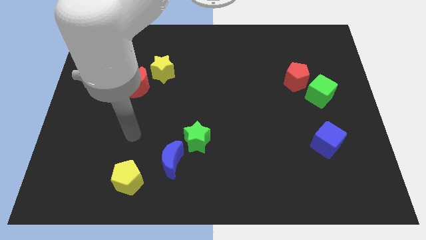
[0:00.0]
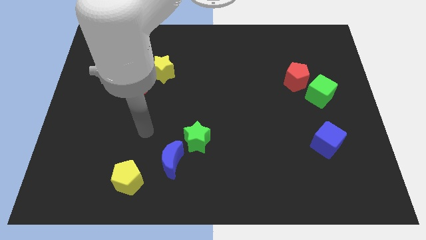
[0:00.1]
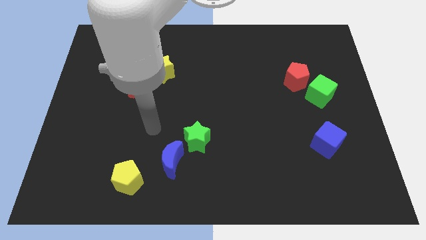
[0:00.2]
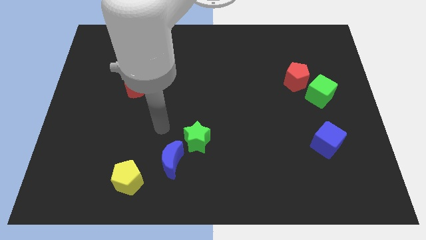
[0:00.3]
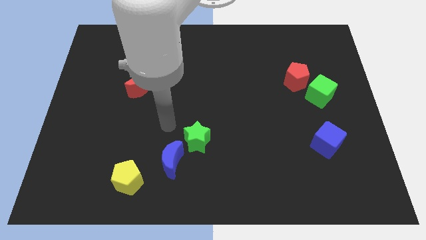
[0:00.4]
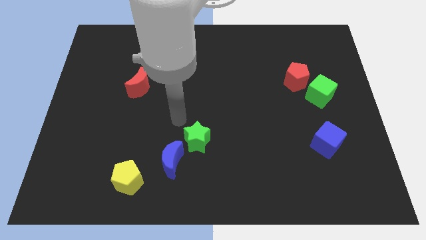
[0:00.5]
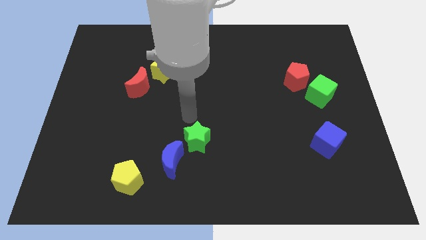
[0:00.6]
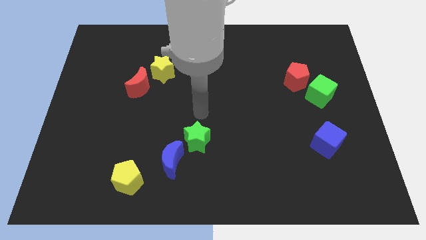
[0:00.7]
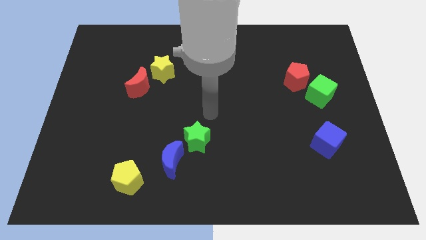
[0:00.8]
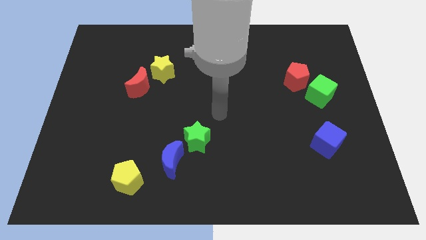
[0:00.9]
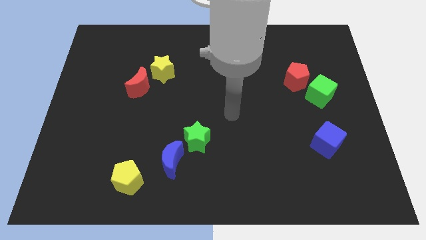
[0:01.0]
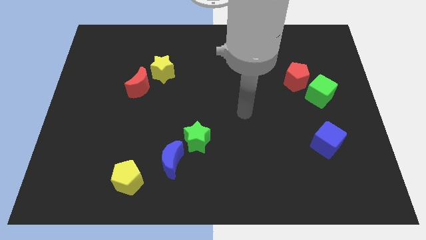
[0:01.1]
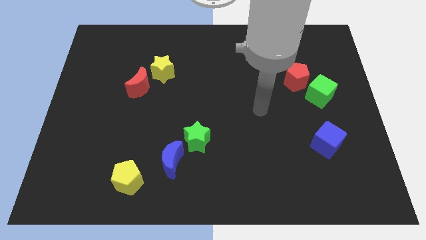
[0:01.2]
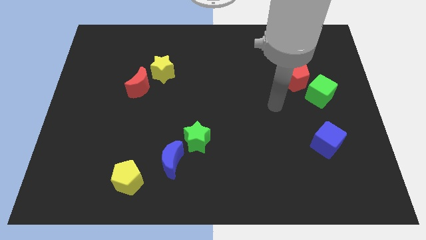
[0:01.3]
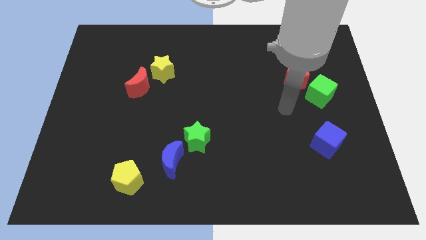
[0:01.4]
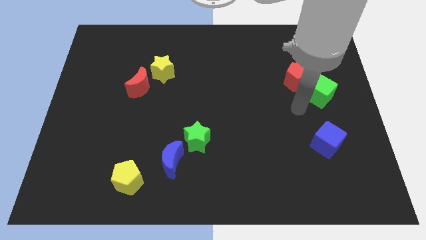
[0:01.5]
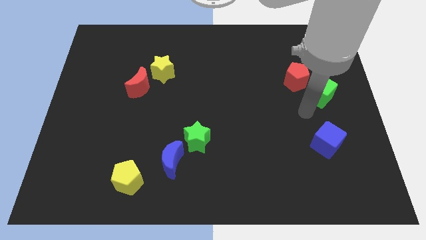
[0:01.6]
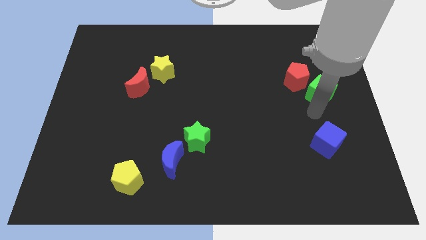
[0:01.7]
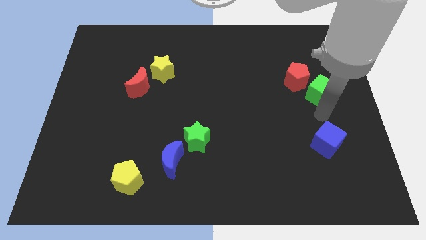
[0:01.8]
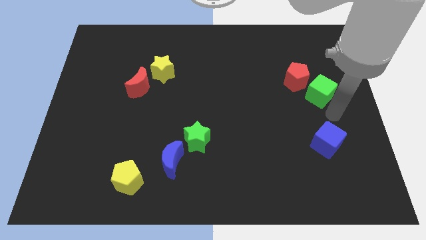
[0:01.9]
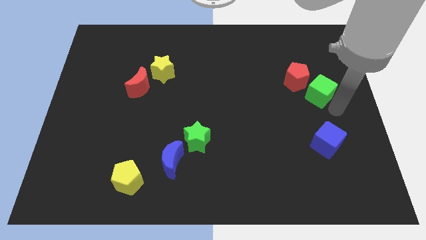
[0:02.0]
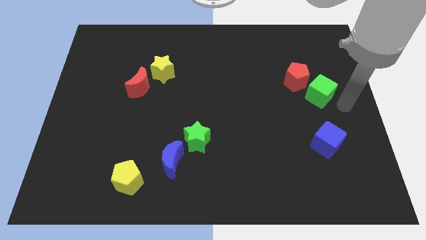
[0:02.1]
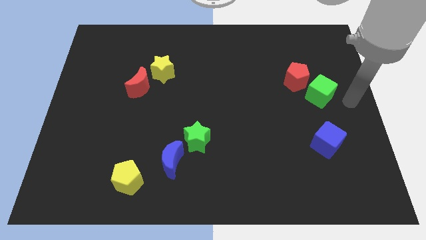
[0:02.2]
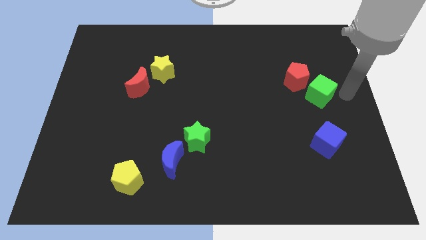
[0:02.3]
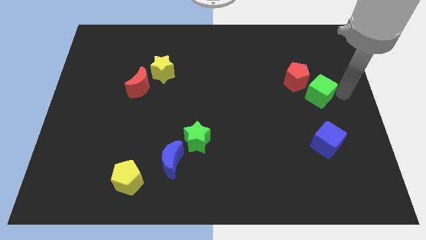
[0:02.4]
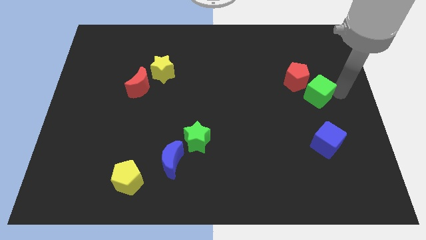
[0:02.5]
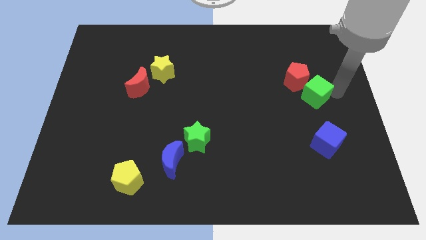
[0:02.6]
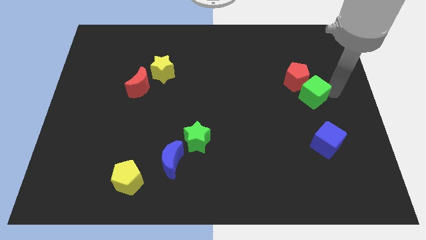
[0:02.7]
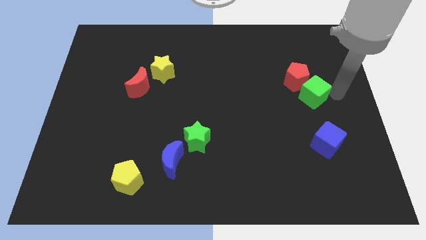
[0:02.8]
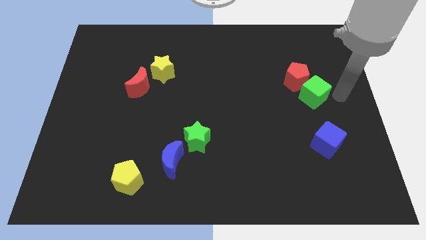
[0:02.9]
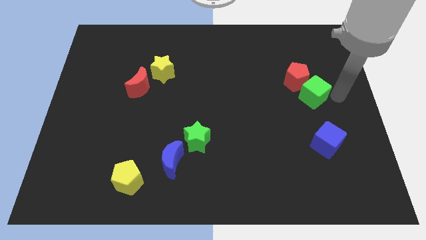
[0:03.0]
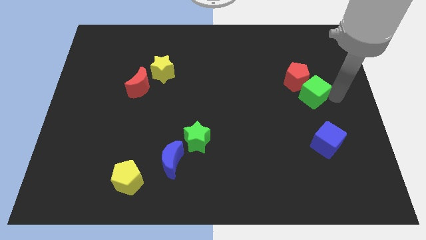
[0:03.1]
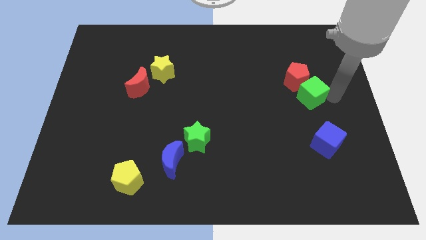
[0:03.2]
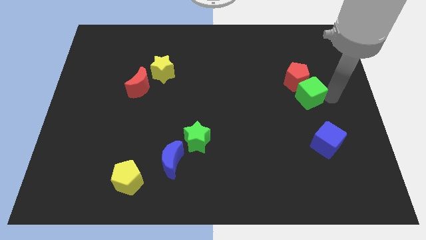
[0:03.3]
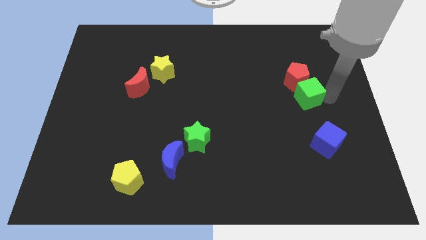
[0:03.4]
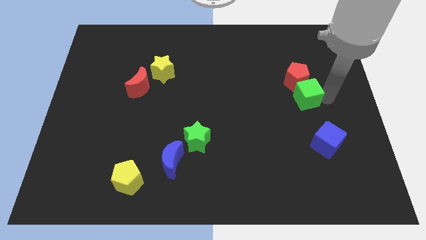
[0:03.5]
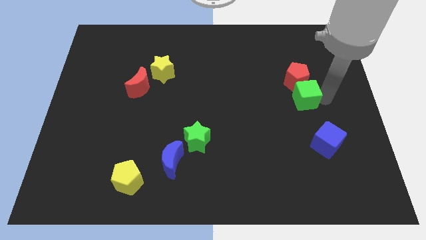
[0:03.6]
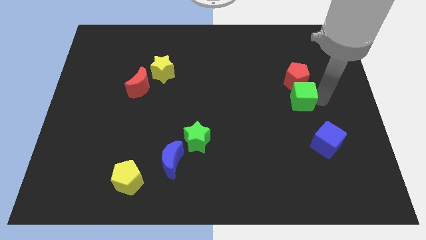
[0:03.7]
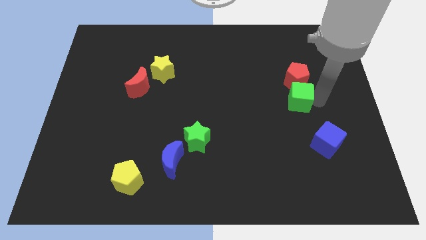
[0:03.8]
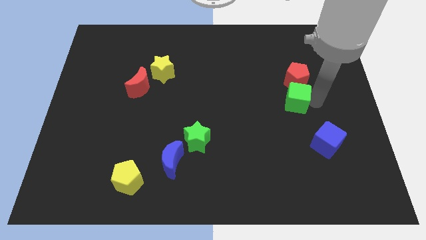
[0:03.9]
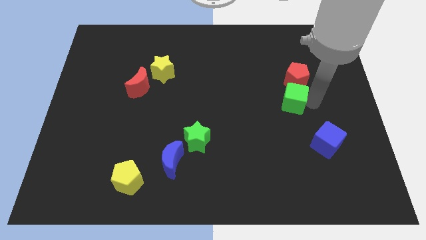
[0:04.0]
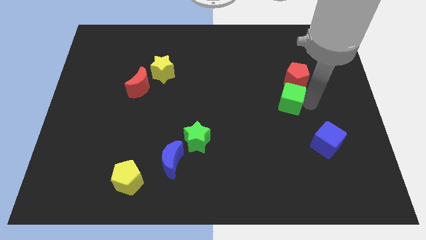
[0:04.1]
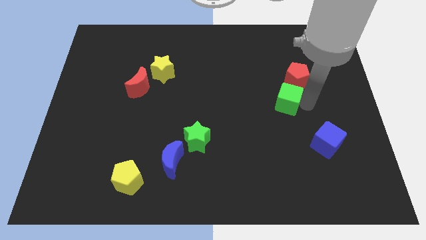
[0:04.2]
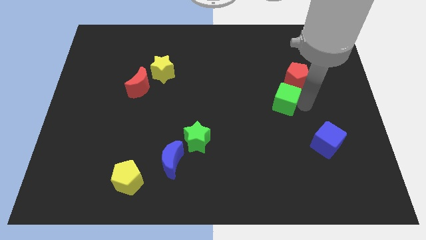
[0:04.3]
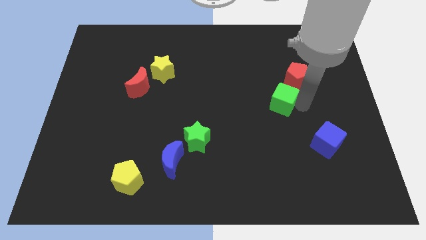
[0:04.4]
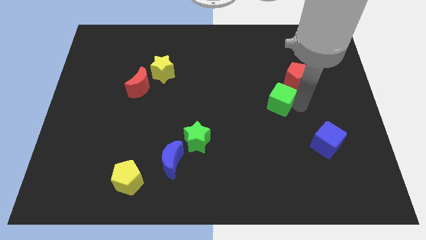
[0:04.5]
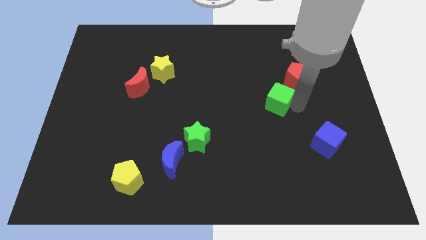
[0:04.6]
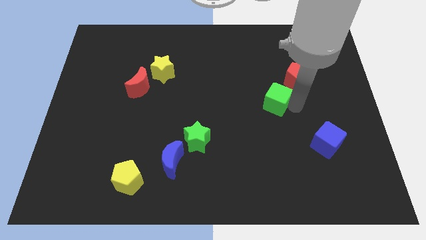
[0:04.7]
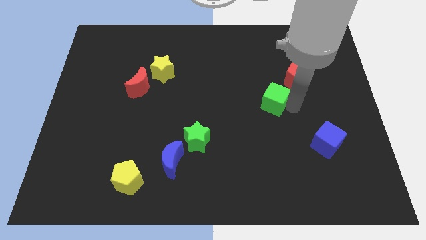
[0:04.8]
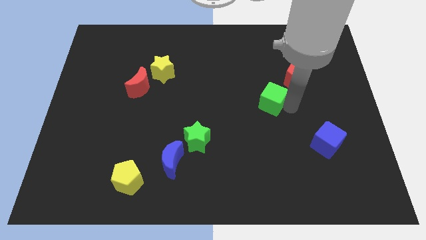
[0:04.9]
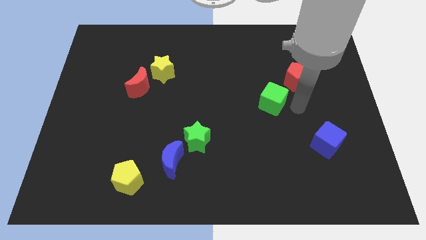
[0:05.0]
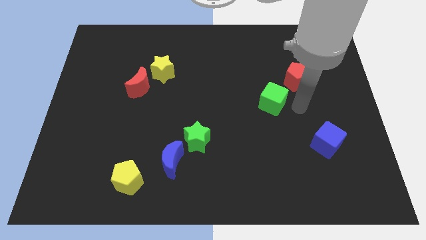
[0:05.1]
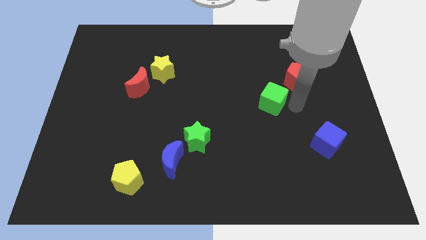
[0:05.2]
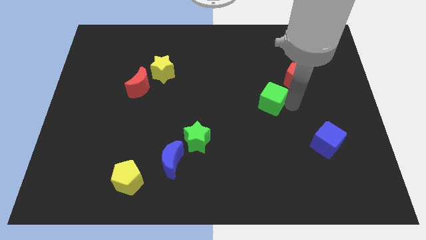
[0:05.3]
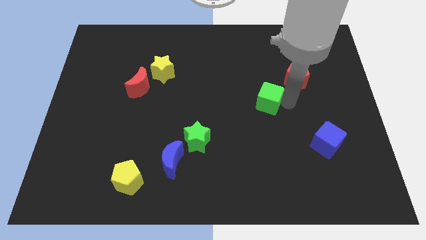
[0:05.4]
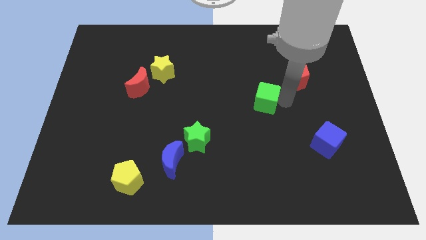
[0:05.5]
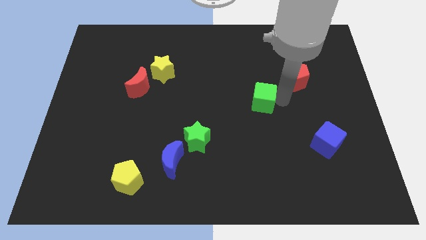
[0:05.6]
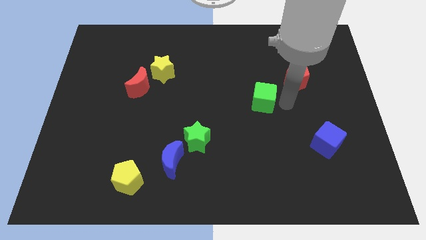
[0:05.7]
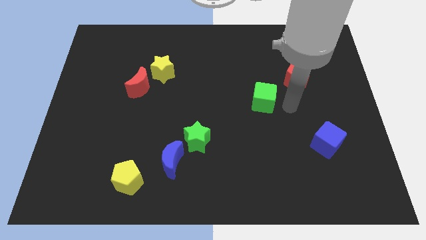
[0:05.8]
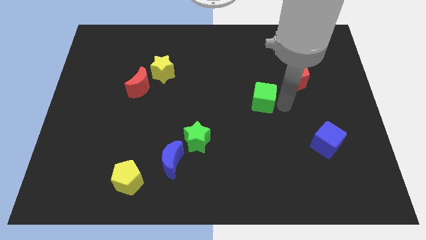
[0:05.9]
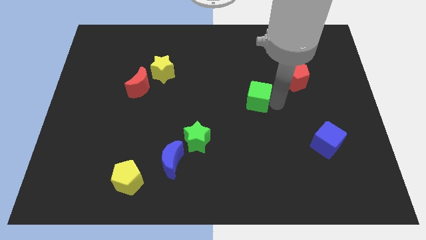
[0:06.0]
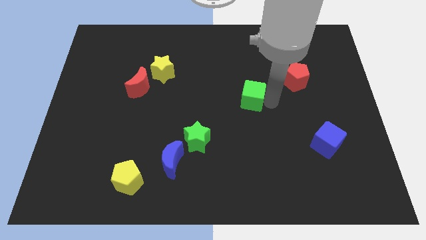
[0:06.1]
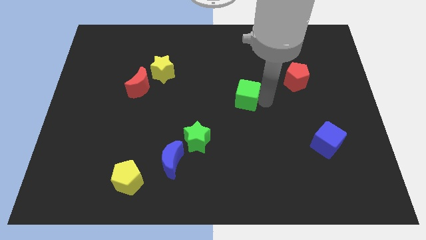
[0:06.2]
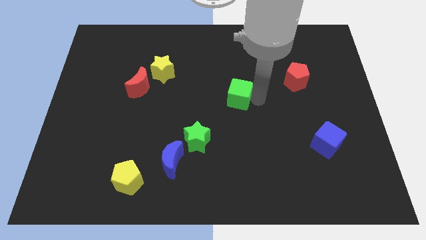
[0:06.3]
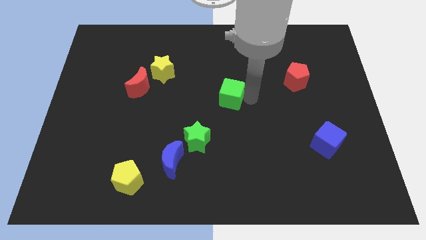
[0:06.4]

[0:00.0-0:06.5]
slide the green cube to the left

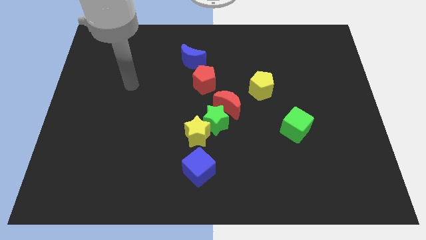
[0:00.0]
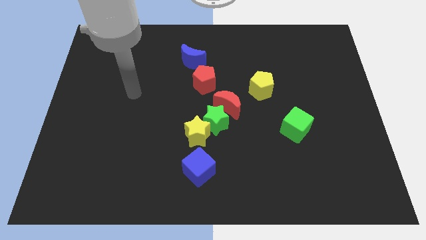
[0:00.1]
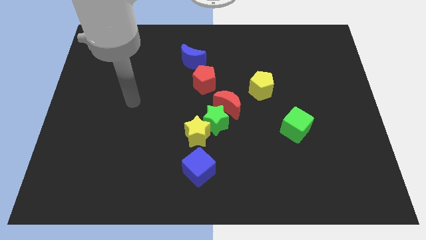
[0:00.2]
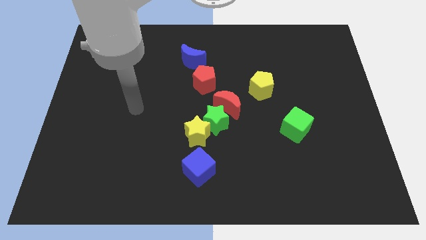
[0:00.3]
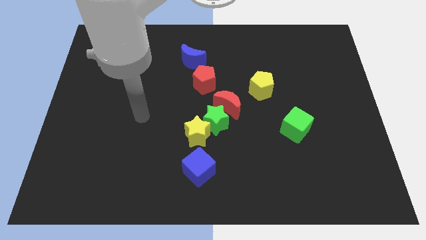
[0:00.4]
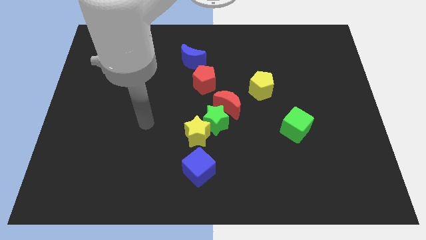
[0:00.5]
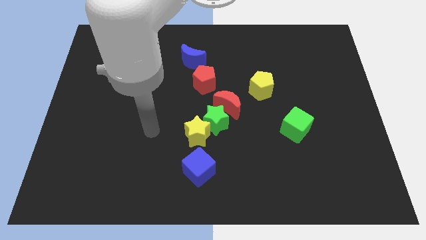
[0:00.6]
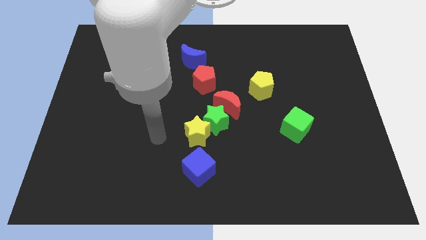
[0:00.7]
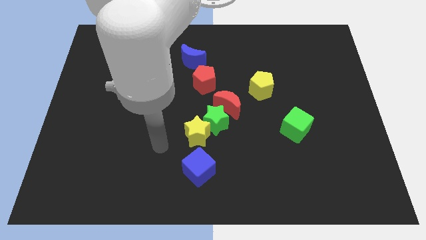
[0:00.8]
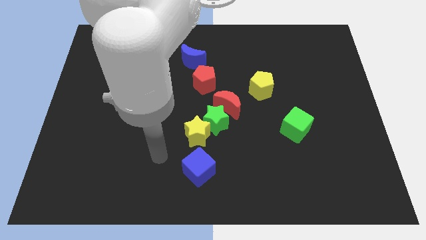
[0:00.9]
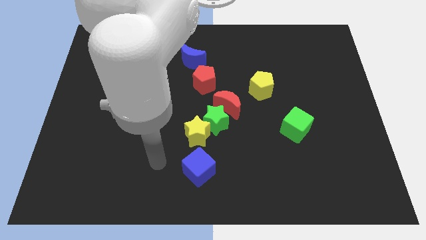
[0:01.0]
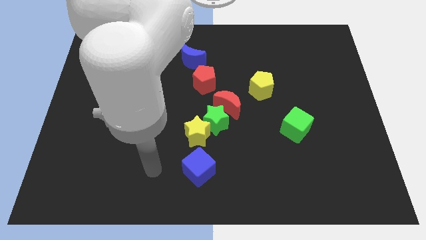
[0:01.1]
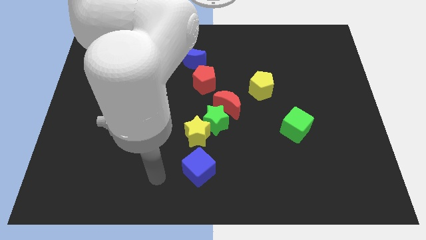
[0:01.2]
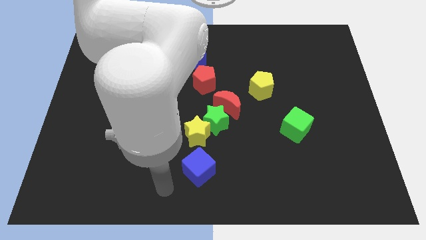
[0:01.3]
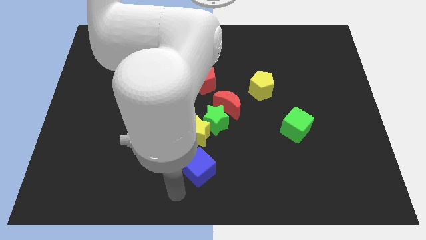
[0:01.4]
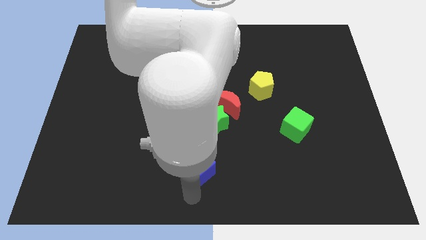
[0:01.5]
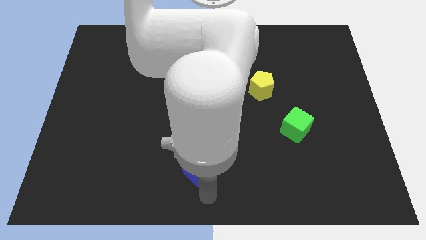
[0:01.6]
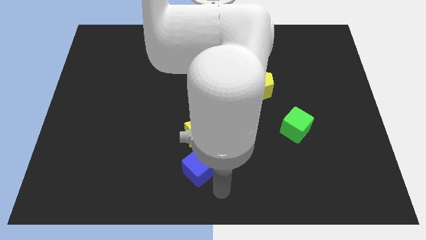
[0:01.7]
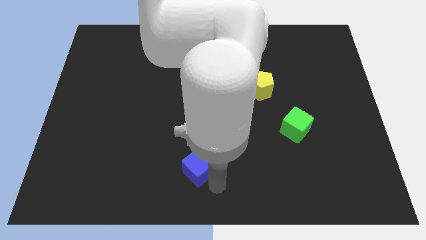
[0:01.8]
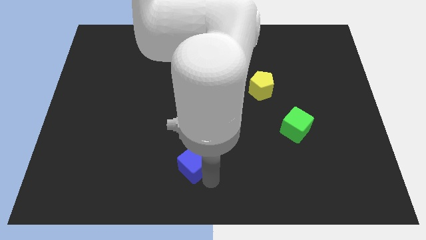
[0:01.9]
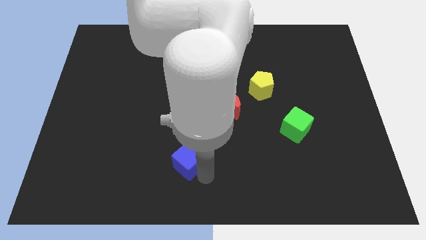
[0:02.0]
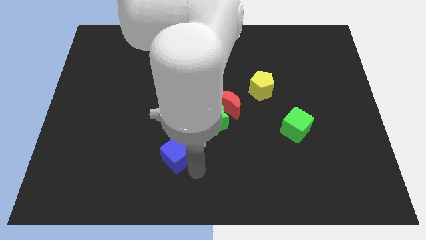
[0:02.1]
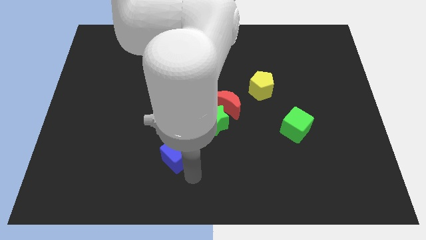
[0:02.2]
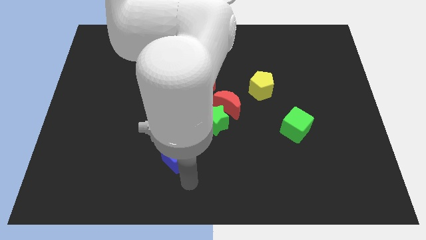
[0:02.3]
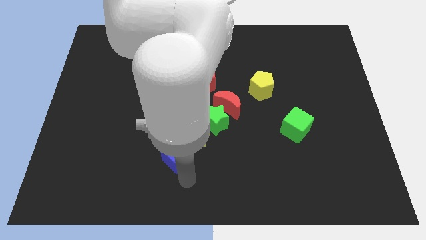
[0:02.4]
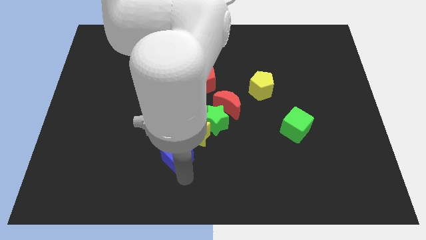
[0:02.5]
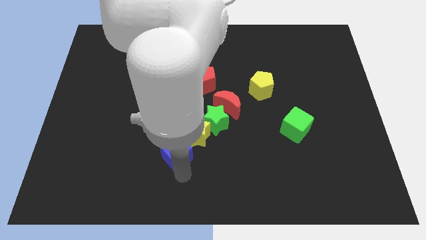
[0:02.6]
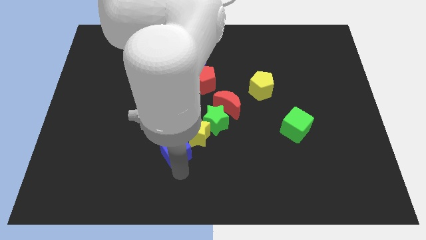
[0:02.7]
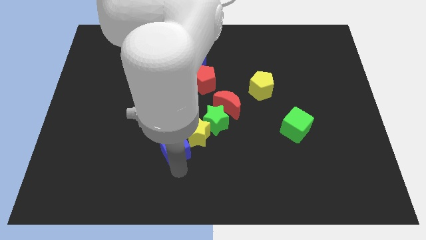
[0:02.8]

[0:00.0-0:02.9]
push the blue cube a little diagonally up and left
